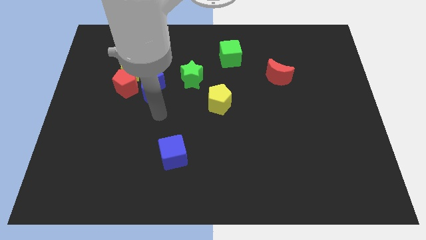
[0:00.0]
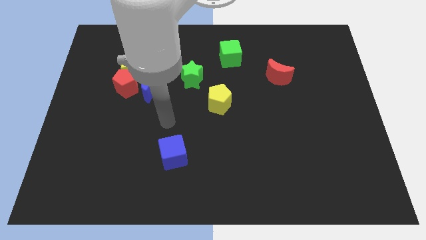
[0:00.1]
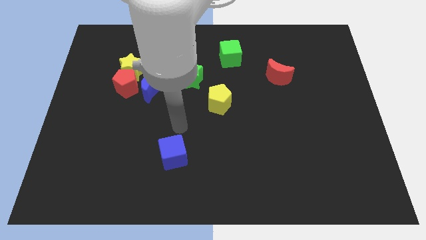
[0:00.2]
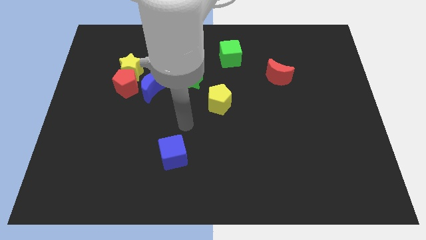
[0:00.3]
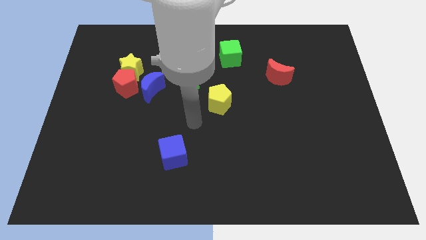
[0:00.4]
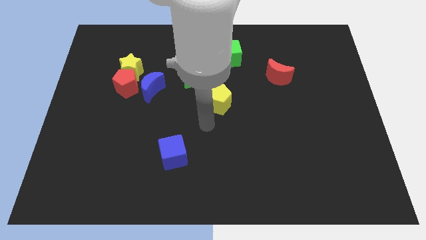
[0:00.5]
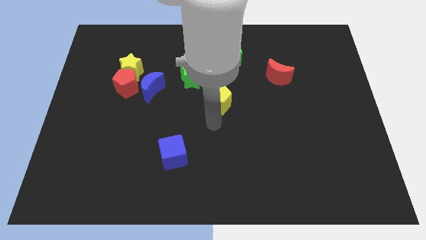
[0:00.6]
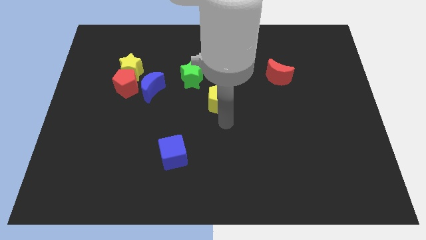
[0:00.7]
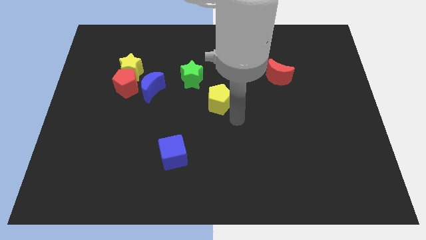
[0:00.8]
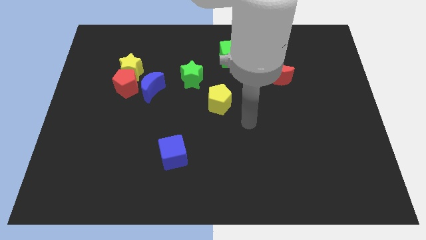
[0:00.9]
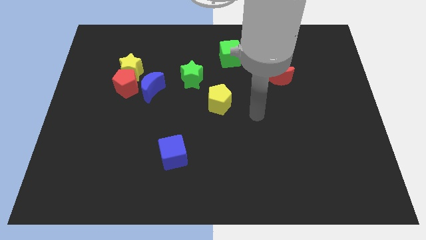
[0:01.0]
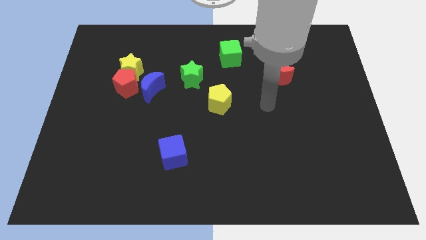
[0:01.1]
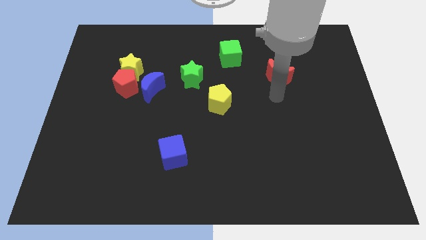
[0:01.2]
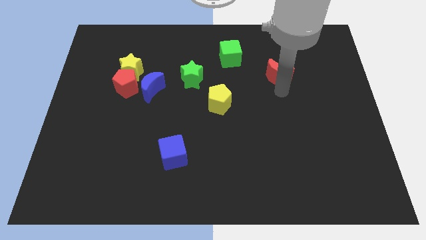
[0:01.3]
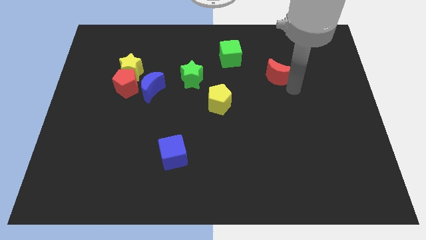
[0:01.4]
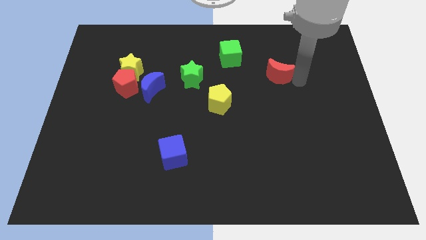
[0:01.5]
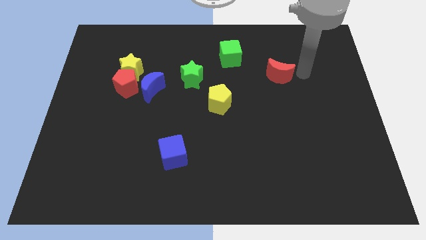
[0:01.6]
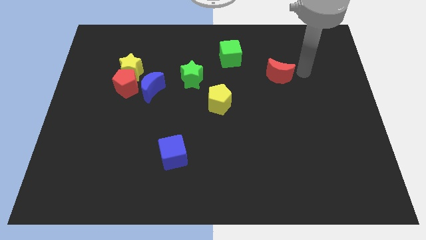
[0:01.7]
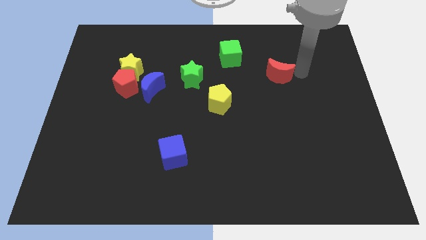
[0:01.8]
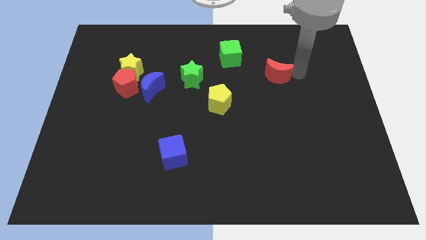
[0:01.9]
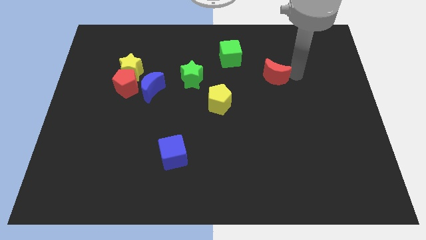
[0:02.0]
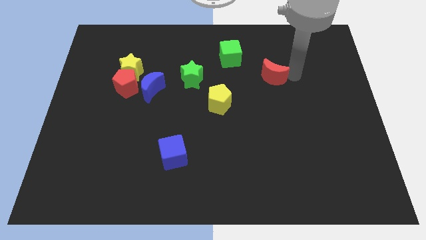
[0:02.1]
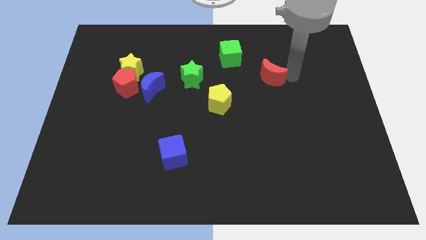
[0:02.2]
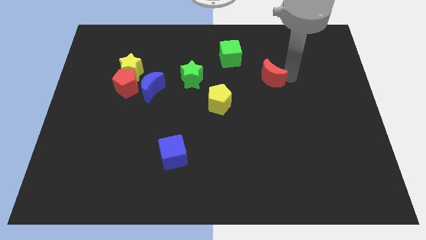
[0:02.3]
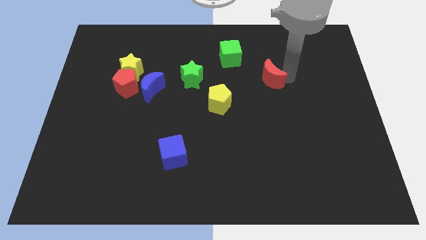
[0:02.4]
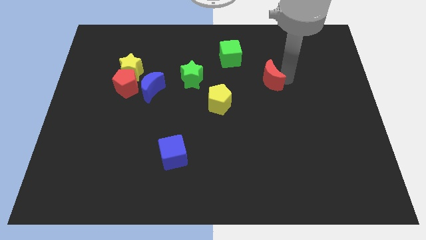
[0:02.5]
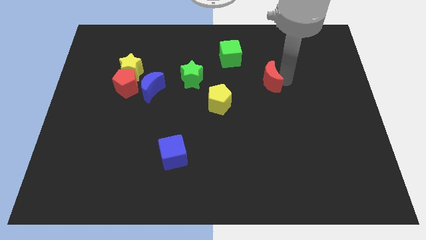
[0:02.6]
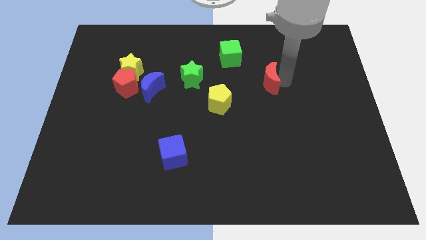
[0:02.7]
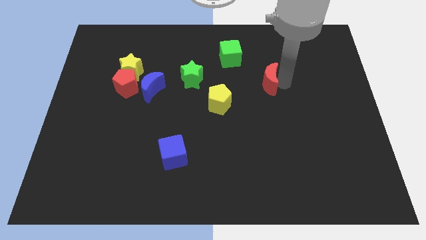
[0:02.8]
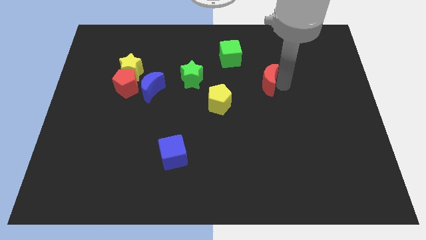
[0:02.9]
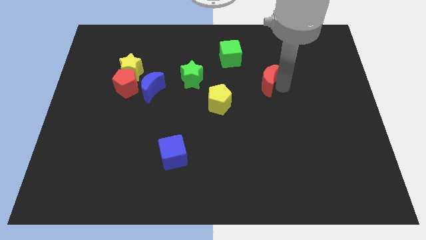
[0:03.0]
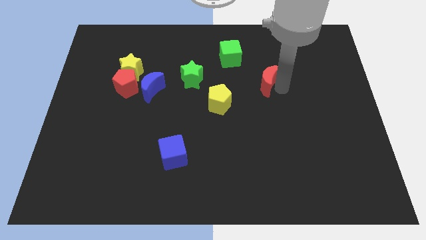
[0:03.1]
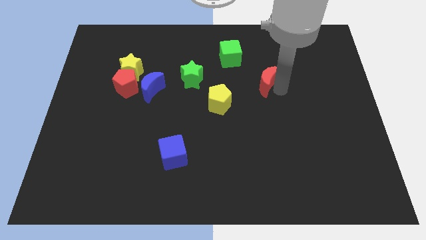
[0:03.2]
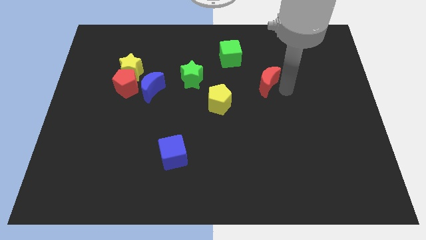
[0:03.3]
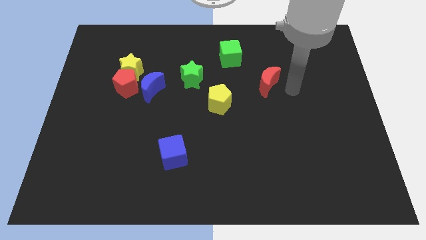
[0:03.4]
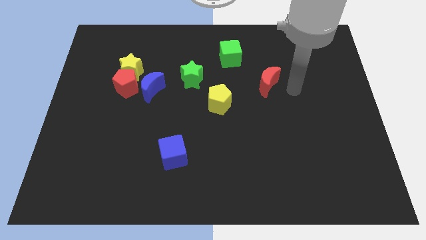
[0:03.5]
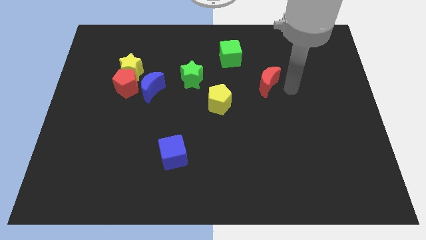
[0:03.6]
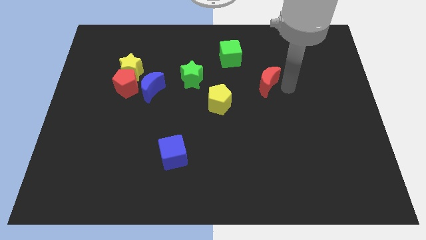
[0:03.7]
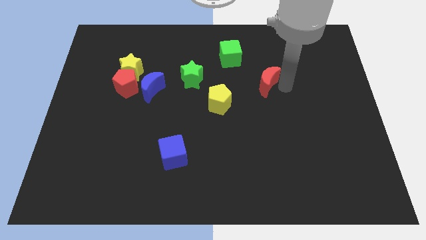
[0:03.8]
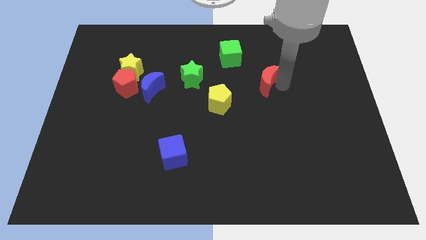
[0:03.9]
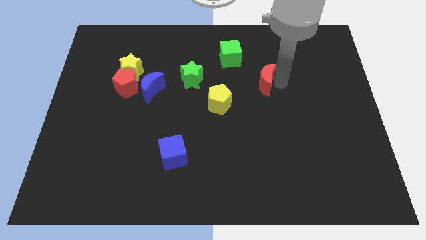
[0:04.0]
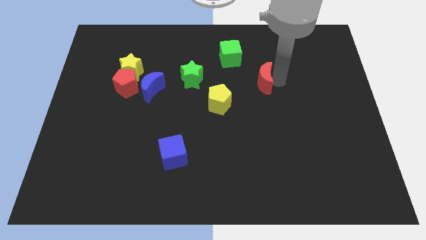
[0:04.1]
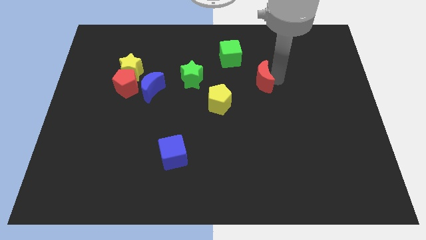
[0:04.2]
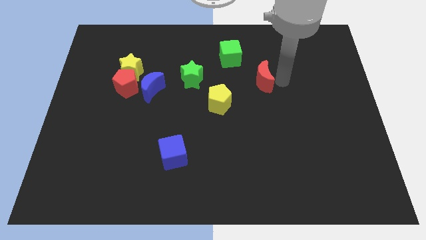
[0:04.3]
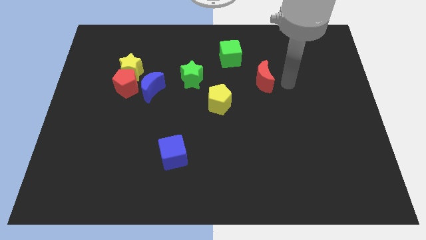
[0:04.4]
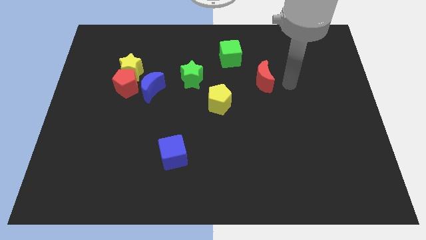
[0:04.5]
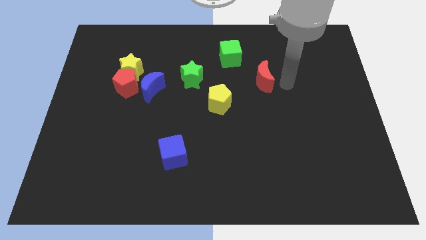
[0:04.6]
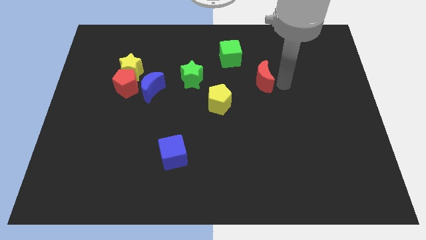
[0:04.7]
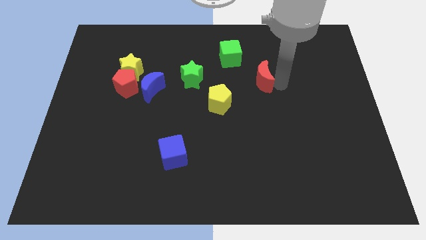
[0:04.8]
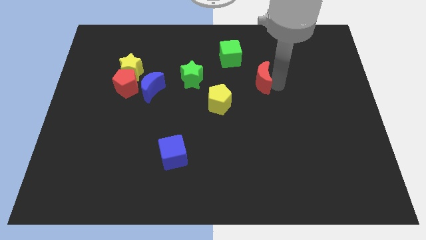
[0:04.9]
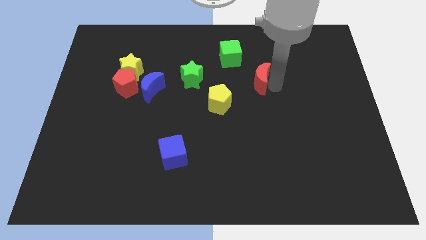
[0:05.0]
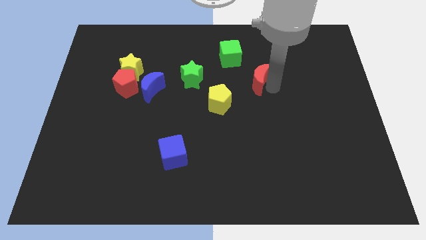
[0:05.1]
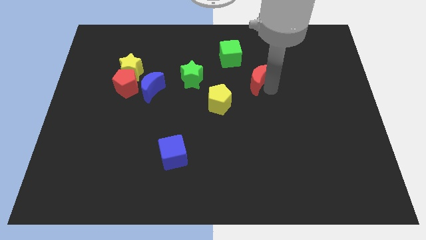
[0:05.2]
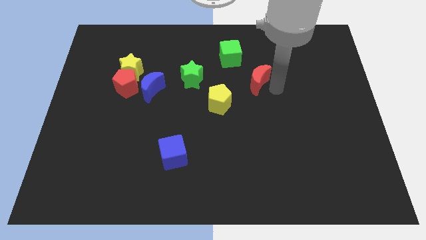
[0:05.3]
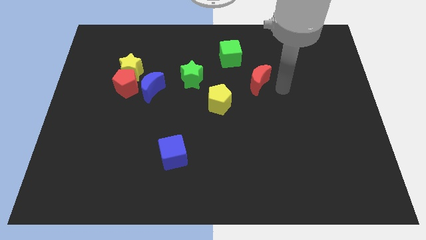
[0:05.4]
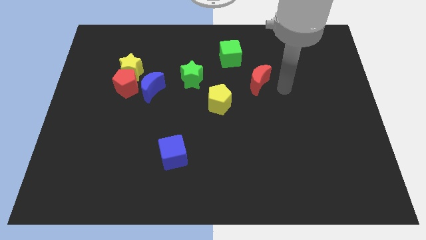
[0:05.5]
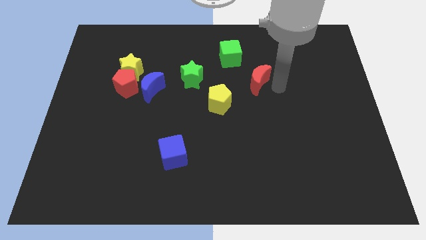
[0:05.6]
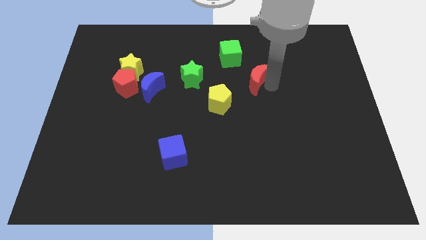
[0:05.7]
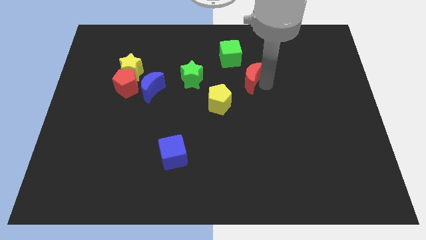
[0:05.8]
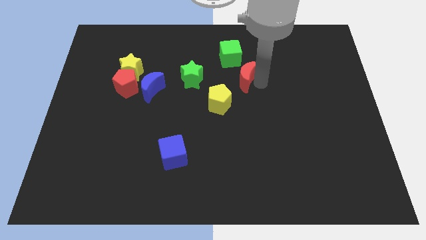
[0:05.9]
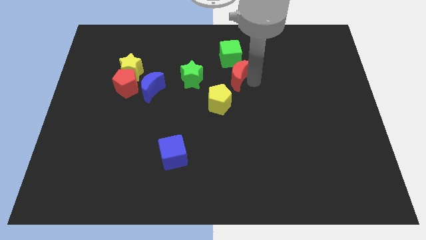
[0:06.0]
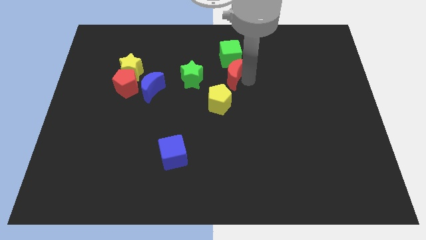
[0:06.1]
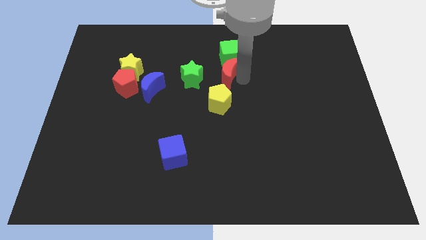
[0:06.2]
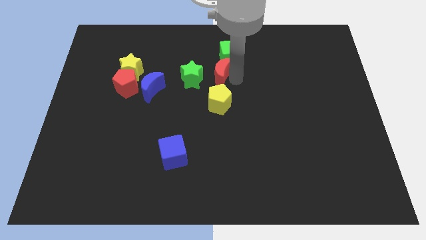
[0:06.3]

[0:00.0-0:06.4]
push the red moon to the top right of the green star

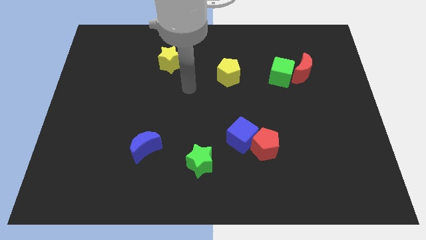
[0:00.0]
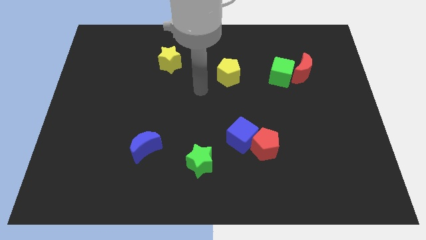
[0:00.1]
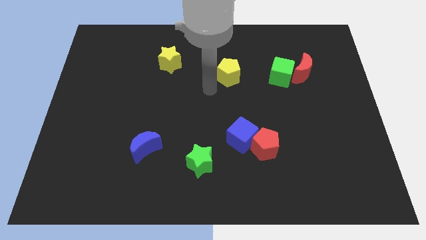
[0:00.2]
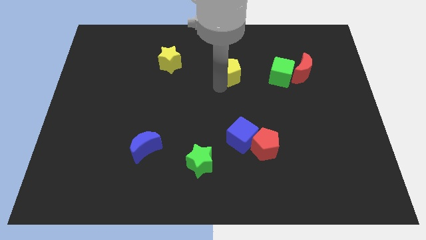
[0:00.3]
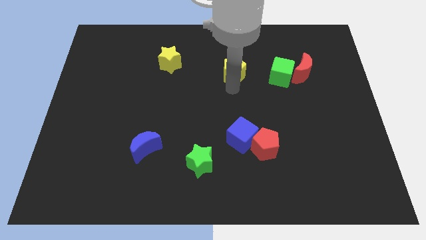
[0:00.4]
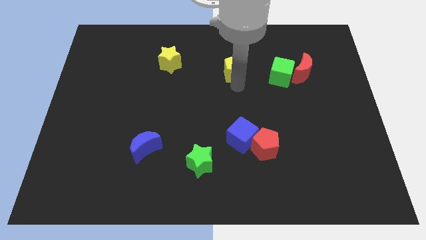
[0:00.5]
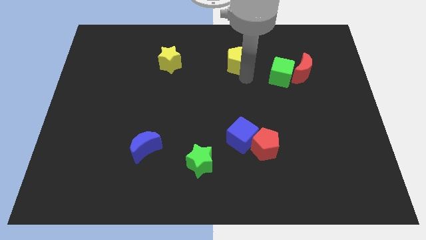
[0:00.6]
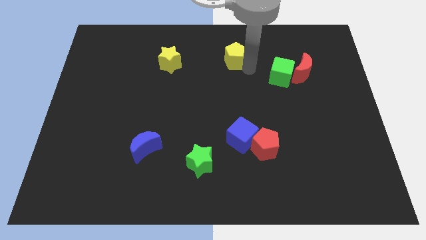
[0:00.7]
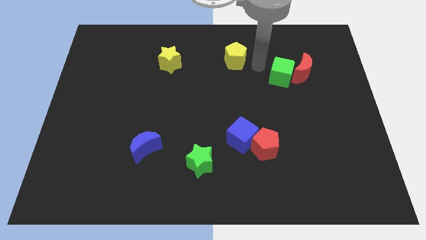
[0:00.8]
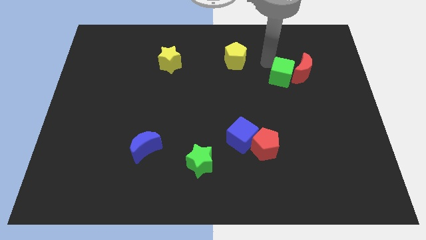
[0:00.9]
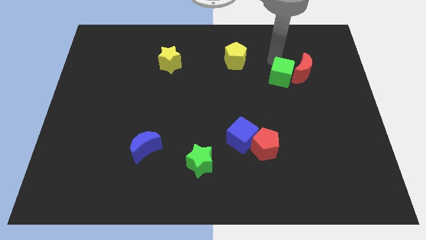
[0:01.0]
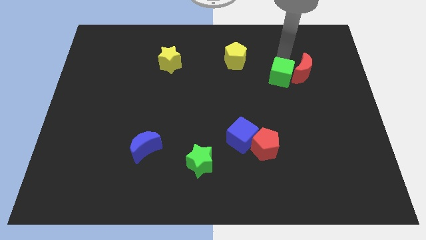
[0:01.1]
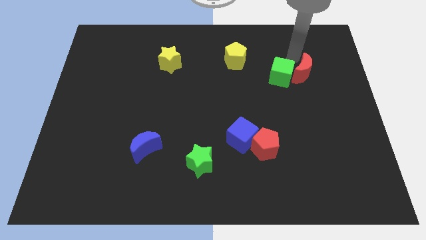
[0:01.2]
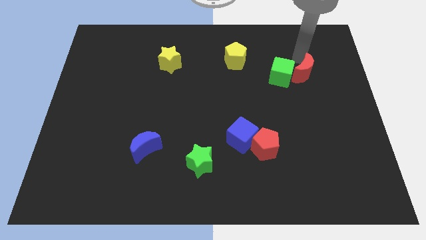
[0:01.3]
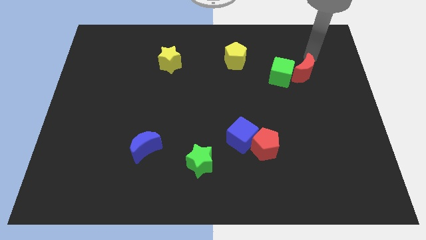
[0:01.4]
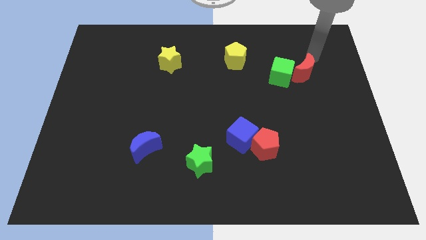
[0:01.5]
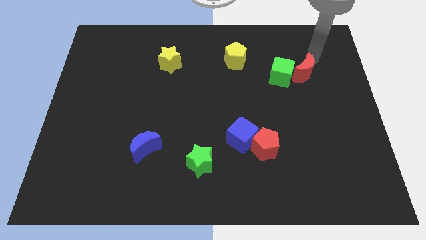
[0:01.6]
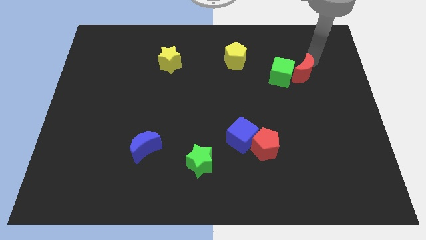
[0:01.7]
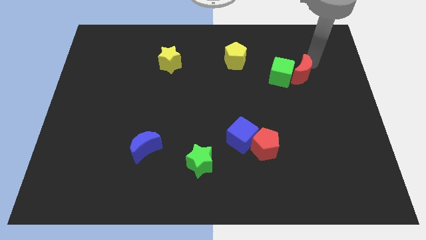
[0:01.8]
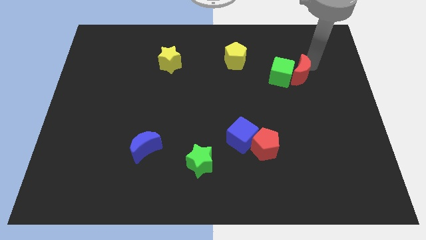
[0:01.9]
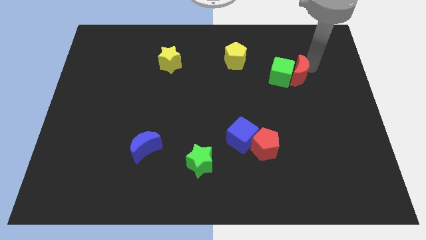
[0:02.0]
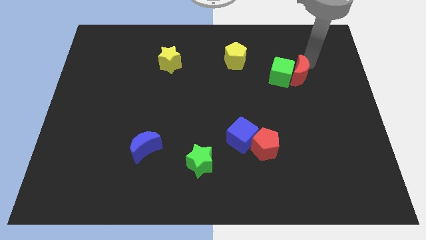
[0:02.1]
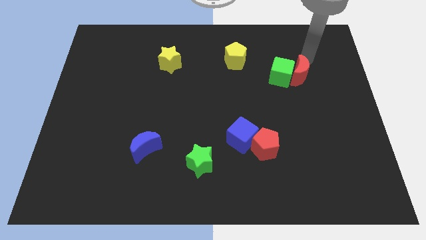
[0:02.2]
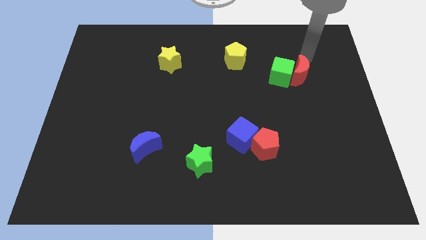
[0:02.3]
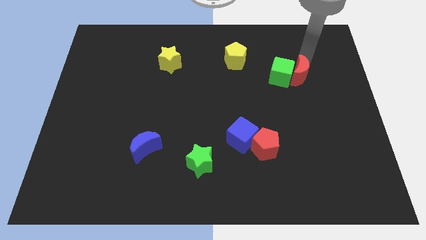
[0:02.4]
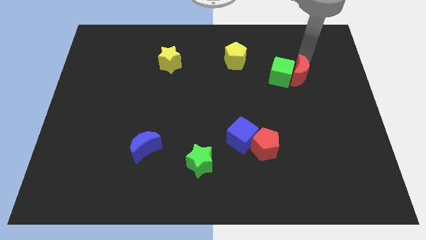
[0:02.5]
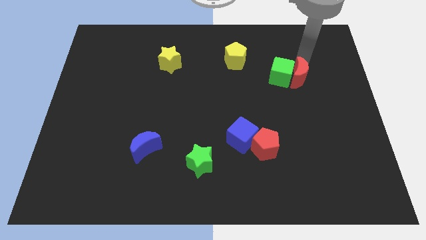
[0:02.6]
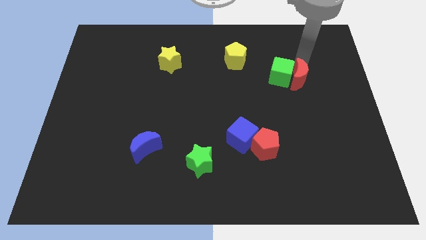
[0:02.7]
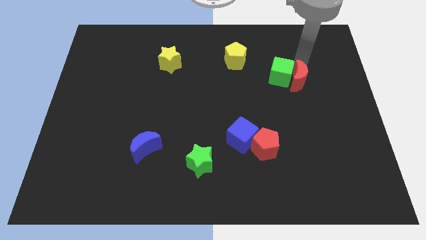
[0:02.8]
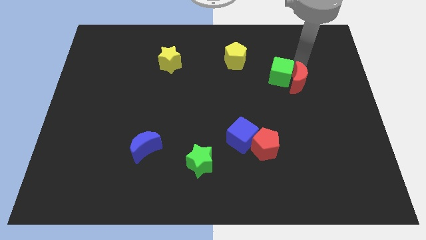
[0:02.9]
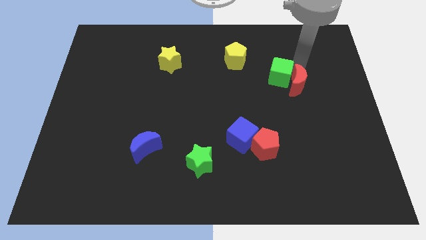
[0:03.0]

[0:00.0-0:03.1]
slide the red moon below the green cube
